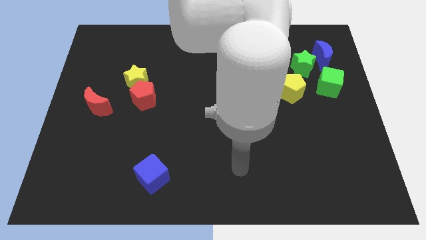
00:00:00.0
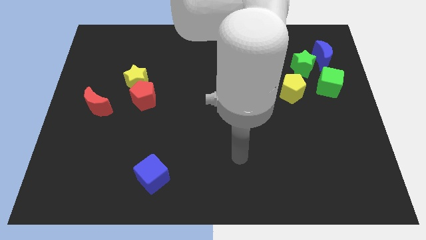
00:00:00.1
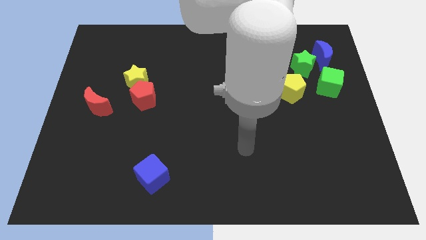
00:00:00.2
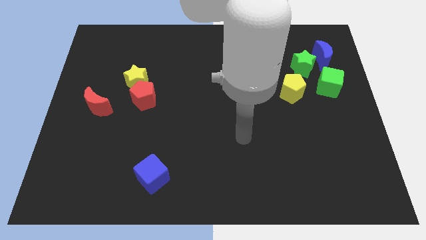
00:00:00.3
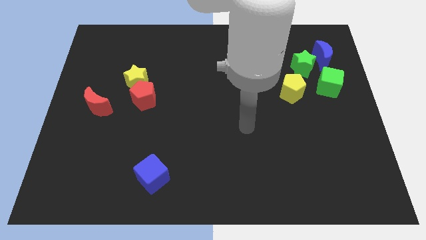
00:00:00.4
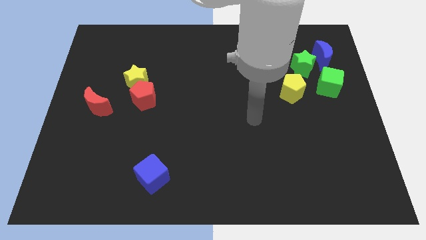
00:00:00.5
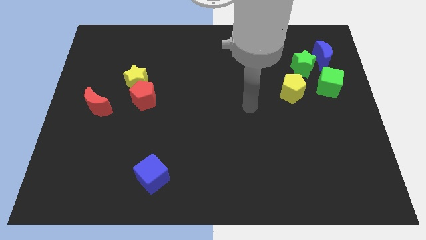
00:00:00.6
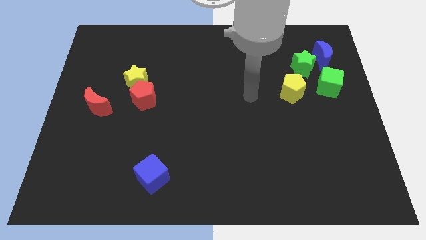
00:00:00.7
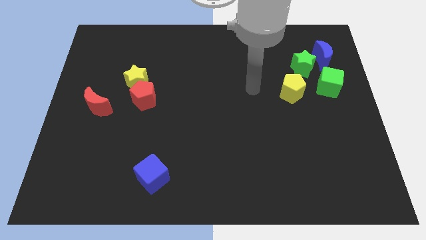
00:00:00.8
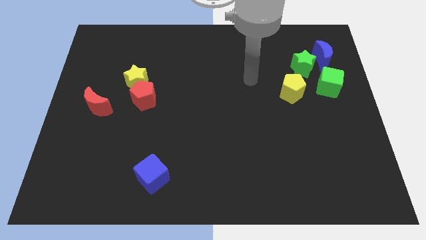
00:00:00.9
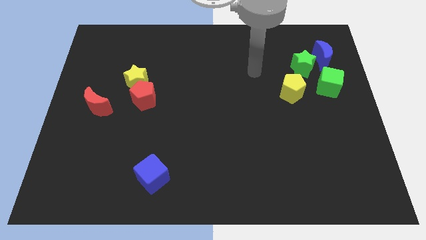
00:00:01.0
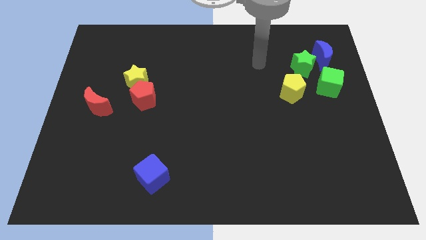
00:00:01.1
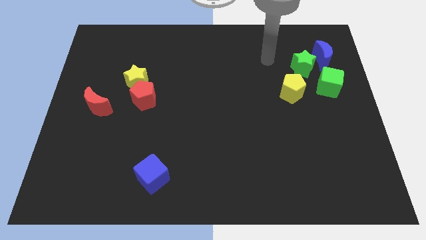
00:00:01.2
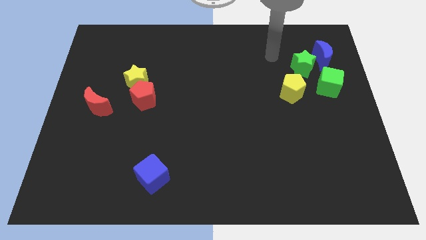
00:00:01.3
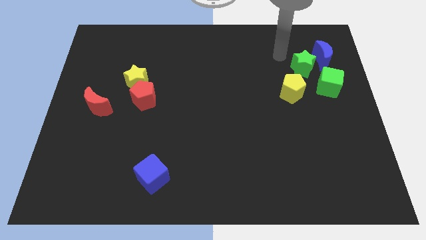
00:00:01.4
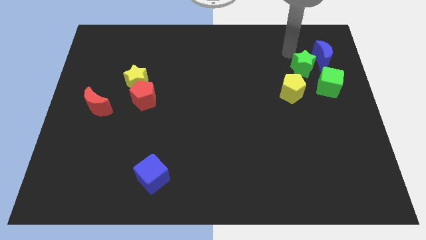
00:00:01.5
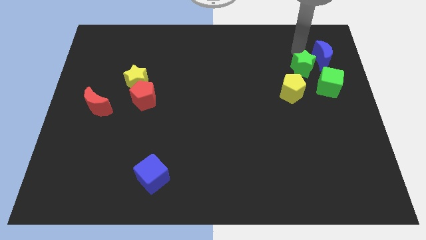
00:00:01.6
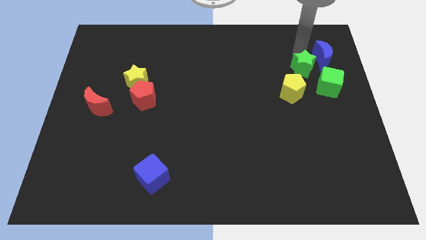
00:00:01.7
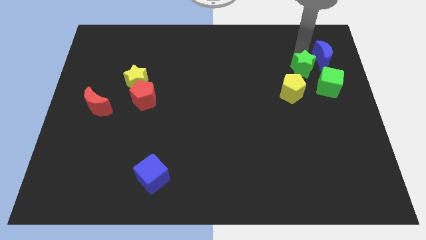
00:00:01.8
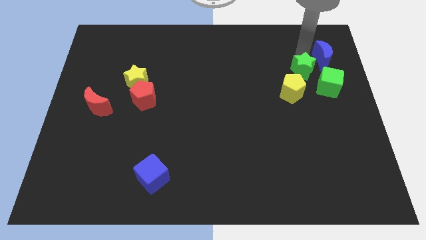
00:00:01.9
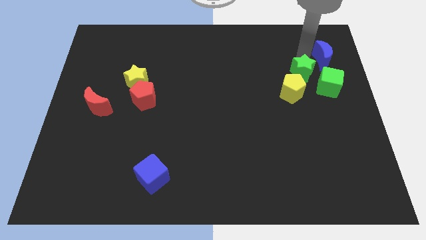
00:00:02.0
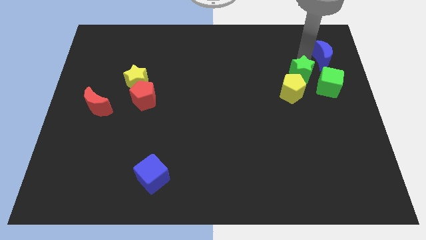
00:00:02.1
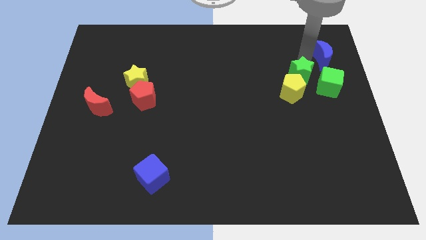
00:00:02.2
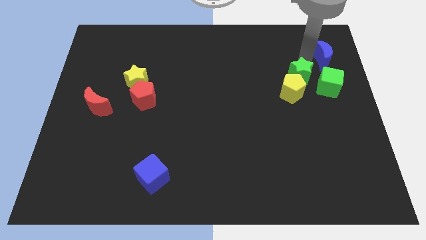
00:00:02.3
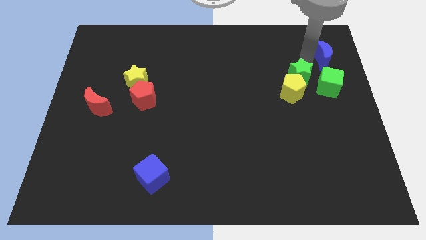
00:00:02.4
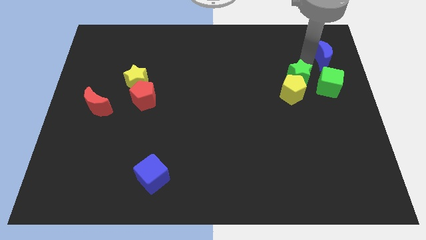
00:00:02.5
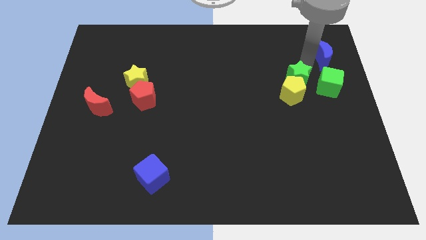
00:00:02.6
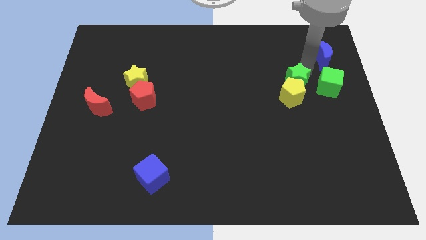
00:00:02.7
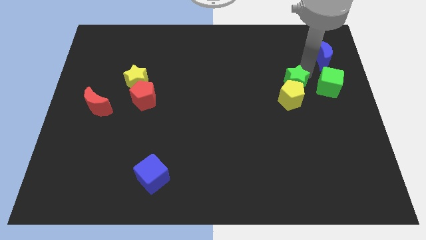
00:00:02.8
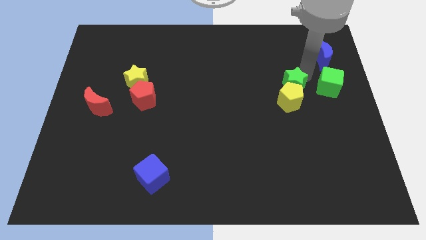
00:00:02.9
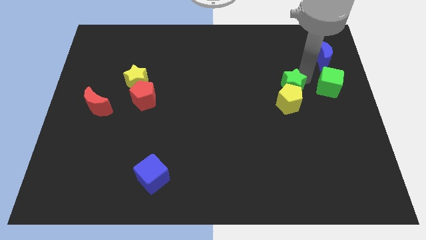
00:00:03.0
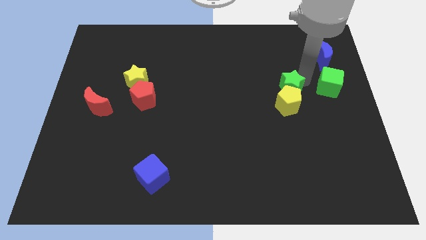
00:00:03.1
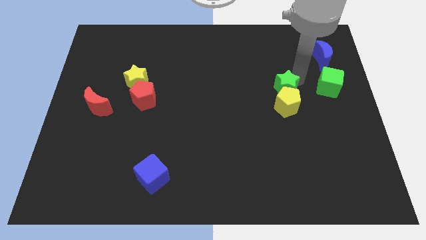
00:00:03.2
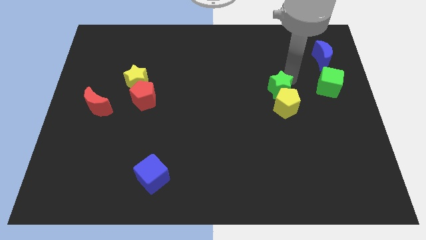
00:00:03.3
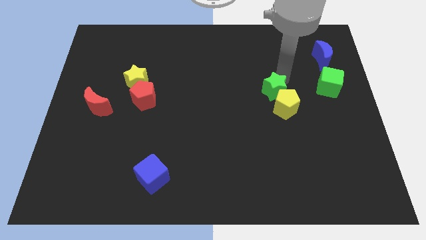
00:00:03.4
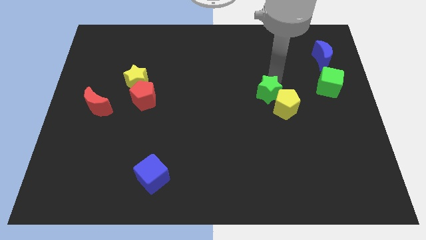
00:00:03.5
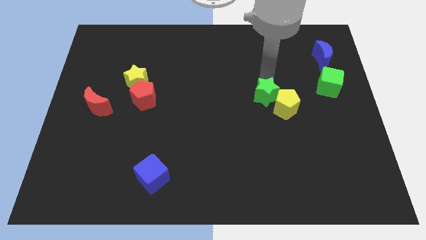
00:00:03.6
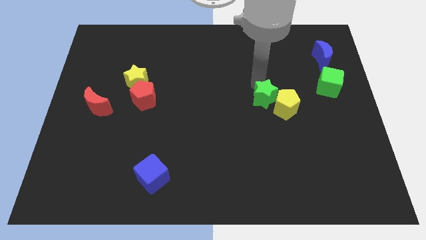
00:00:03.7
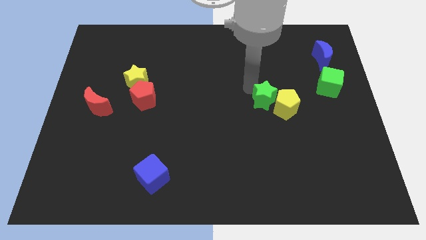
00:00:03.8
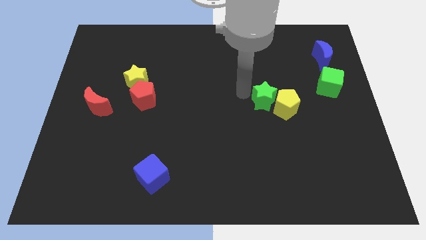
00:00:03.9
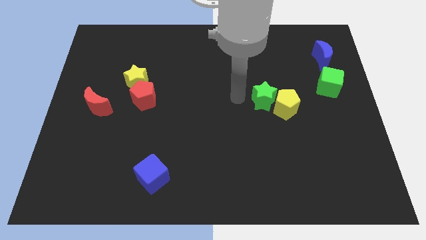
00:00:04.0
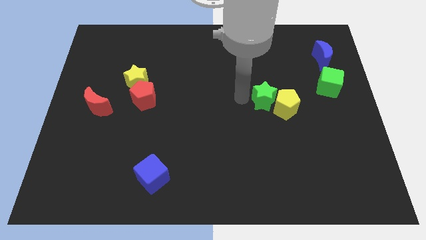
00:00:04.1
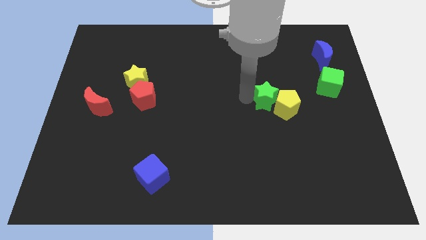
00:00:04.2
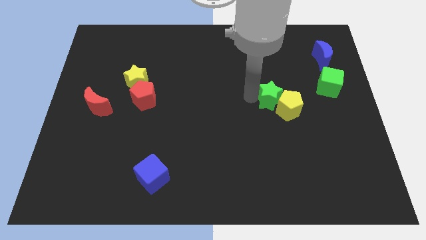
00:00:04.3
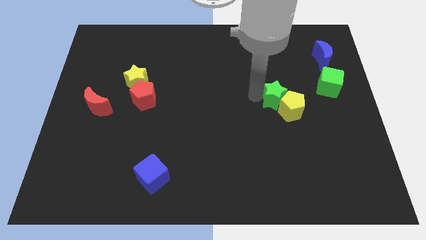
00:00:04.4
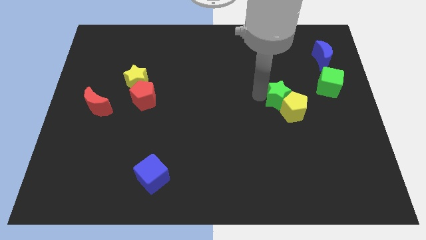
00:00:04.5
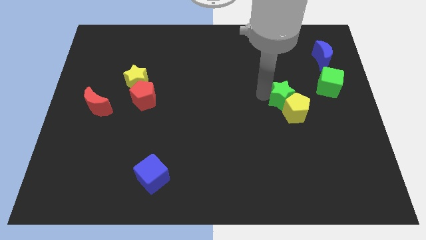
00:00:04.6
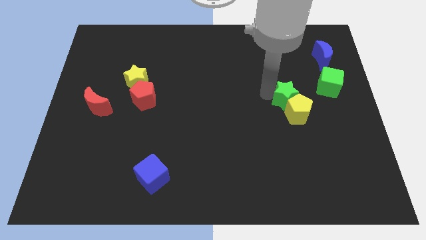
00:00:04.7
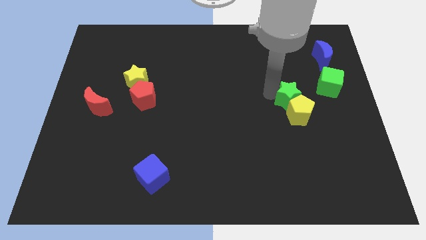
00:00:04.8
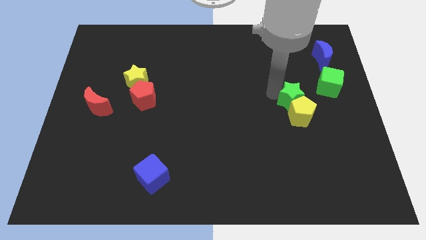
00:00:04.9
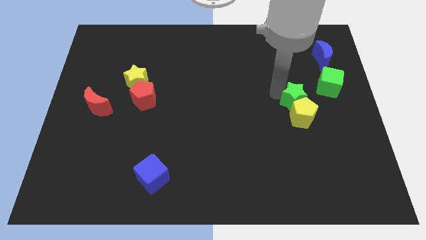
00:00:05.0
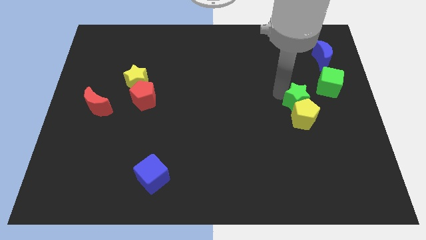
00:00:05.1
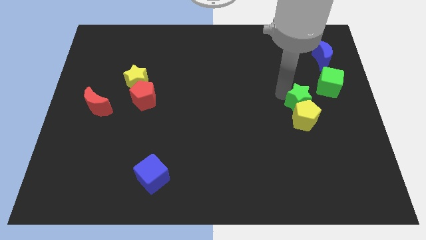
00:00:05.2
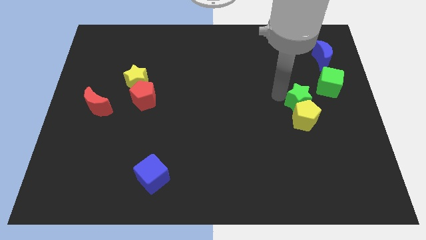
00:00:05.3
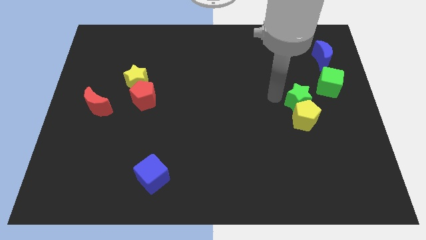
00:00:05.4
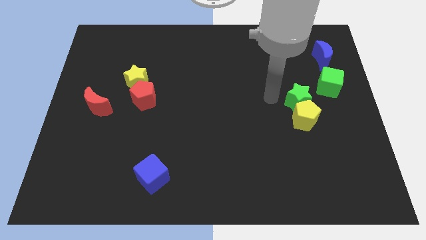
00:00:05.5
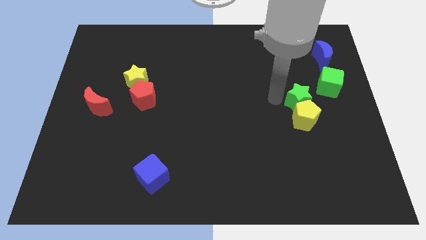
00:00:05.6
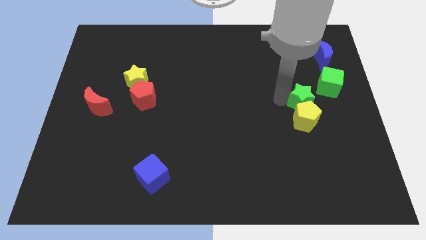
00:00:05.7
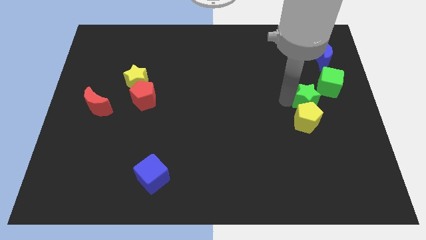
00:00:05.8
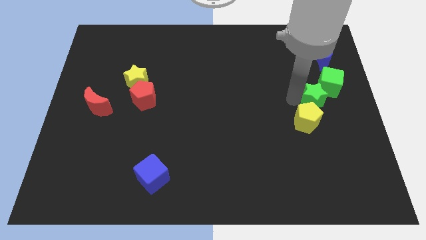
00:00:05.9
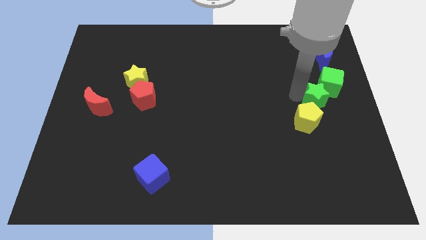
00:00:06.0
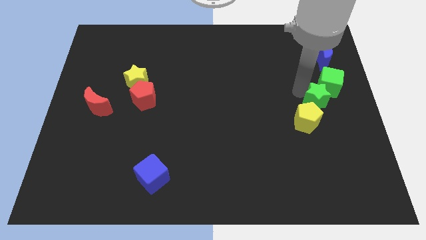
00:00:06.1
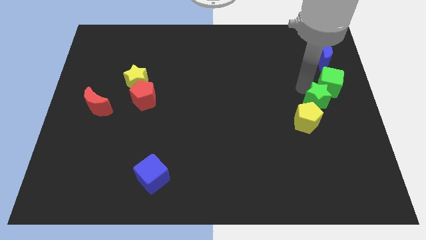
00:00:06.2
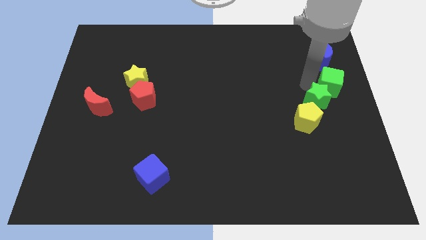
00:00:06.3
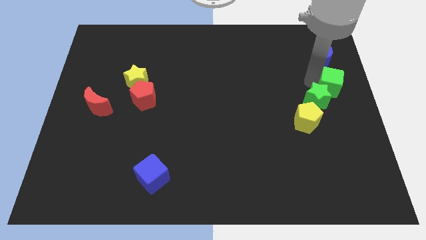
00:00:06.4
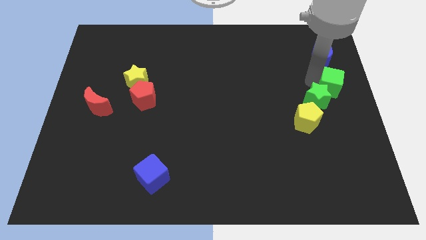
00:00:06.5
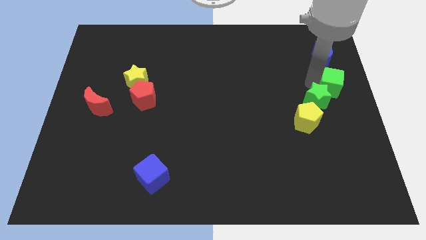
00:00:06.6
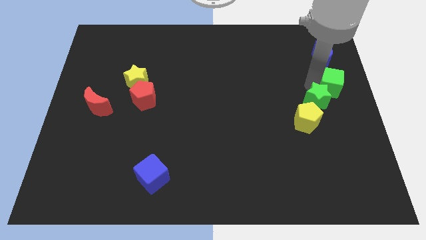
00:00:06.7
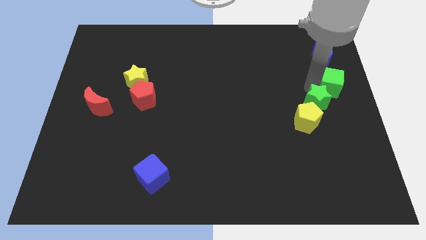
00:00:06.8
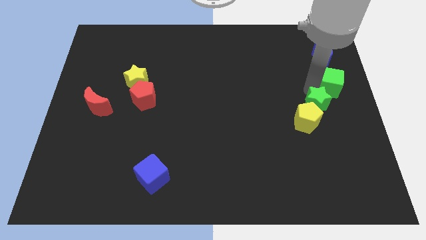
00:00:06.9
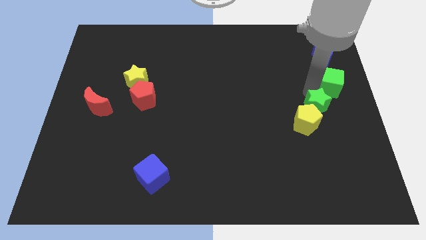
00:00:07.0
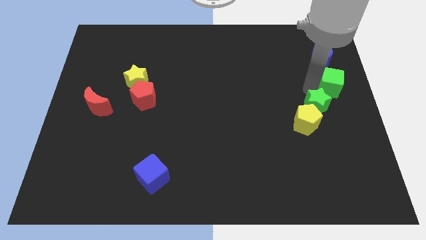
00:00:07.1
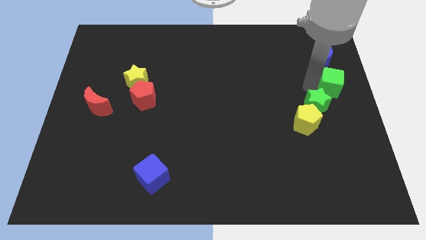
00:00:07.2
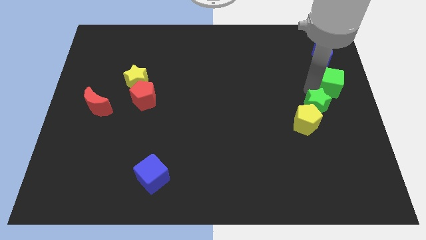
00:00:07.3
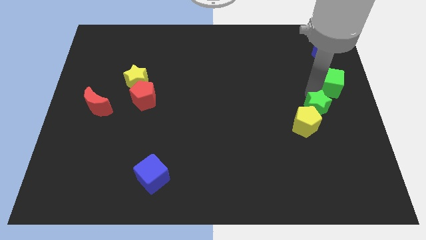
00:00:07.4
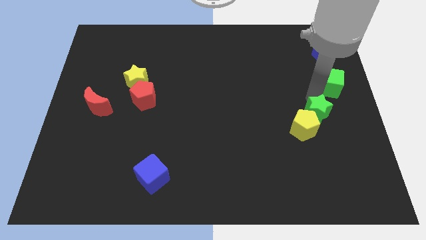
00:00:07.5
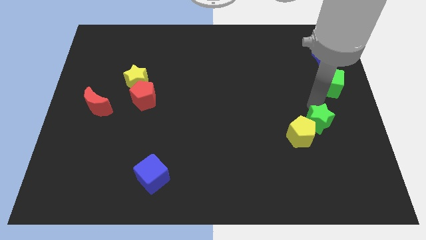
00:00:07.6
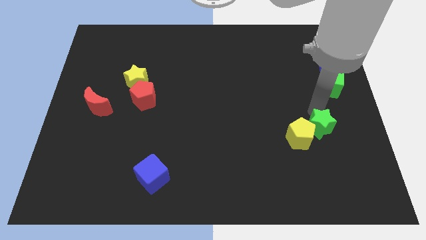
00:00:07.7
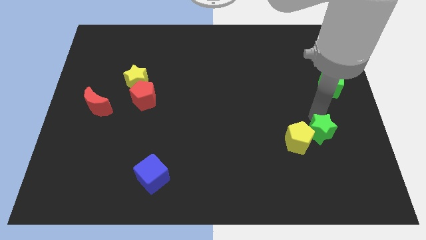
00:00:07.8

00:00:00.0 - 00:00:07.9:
slide the green star downwards

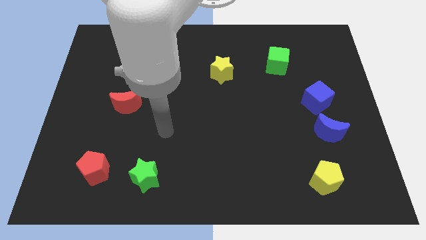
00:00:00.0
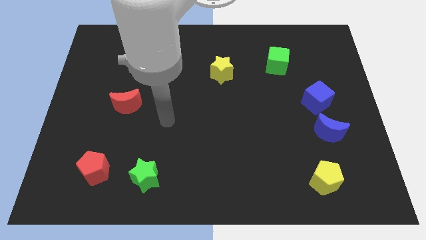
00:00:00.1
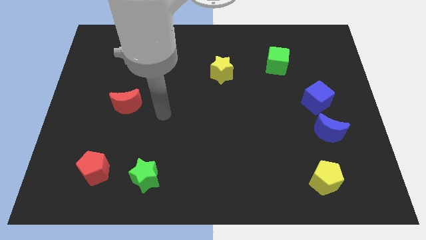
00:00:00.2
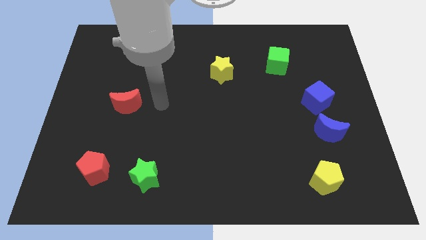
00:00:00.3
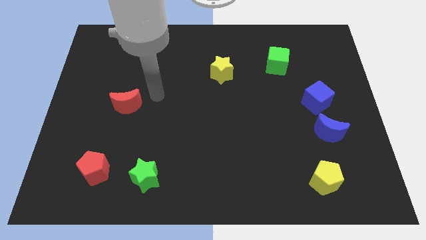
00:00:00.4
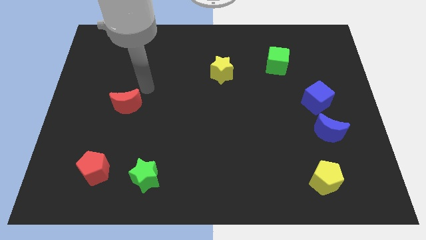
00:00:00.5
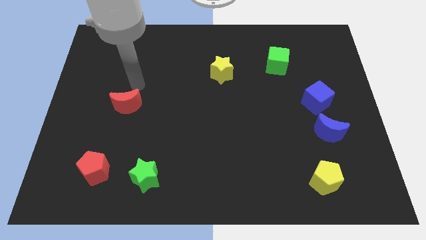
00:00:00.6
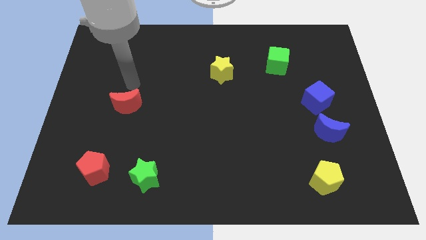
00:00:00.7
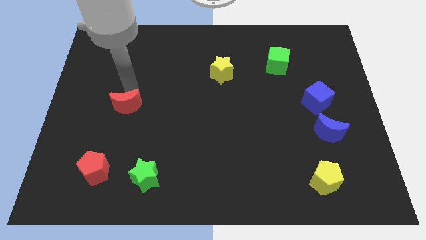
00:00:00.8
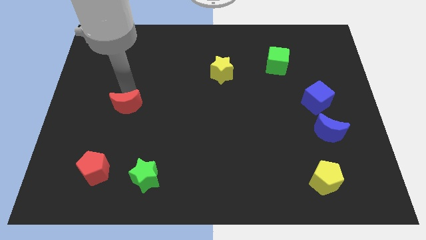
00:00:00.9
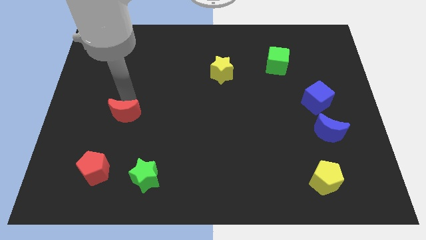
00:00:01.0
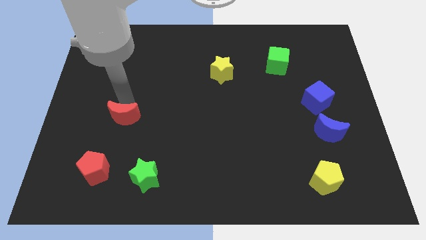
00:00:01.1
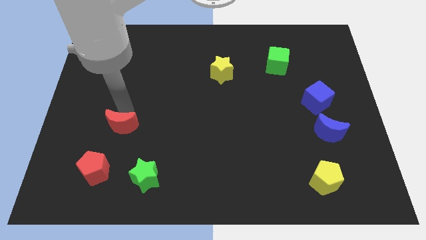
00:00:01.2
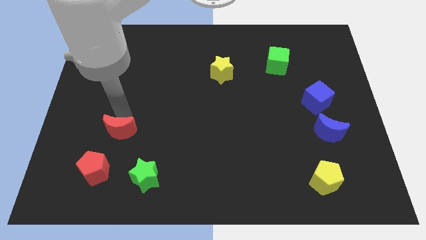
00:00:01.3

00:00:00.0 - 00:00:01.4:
slide the red moon down a little
